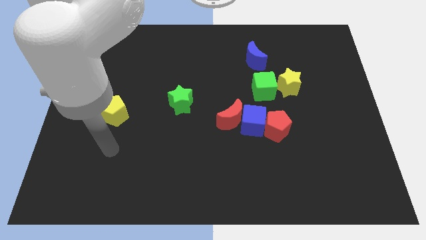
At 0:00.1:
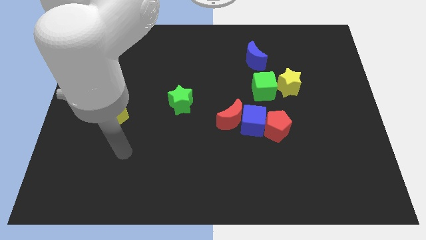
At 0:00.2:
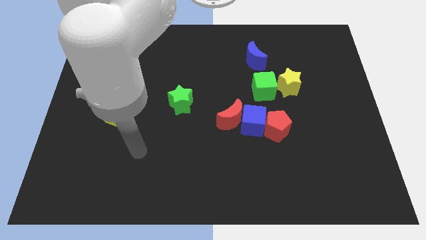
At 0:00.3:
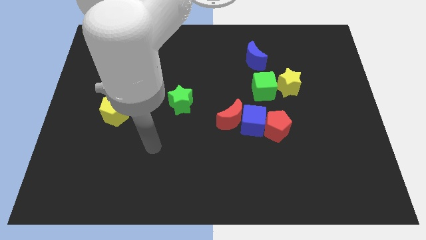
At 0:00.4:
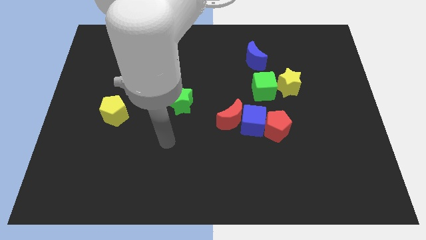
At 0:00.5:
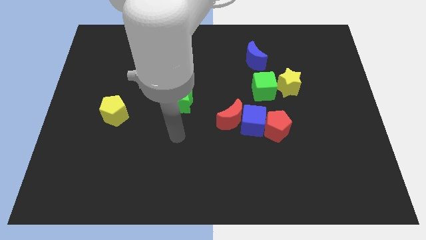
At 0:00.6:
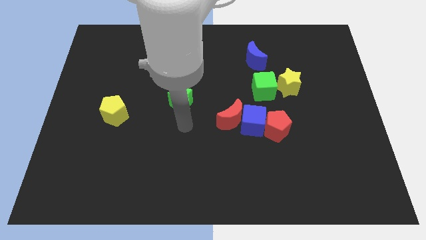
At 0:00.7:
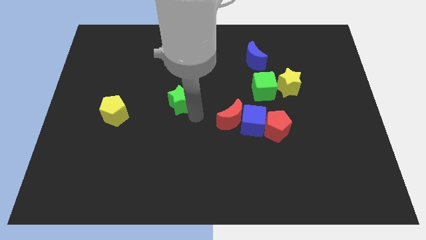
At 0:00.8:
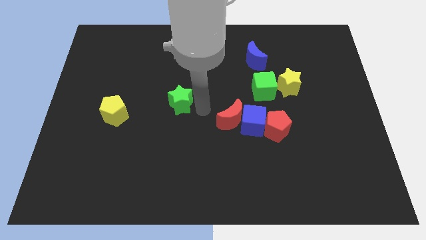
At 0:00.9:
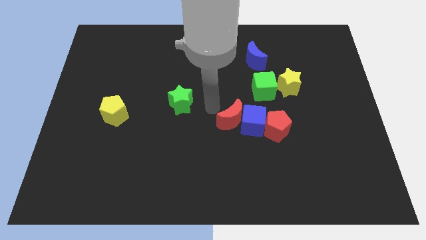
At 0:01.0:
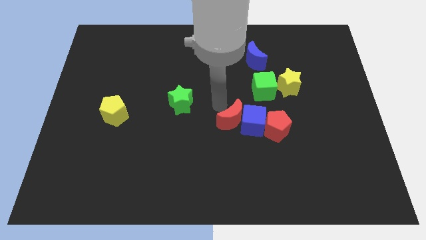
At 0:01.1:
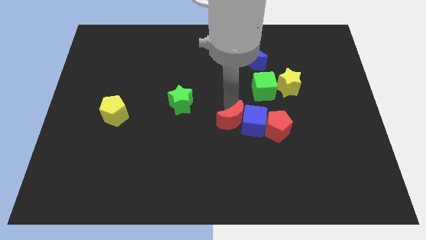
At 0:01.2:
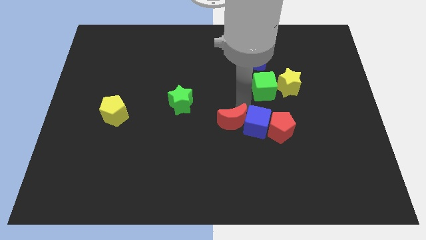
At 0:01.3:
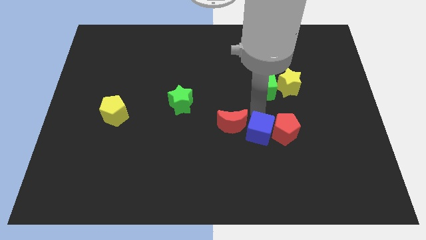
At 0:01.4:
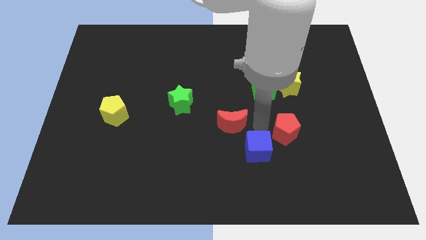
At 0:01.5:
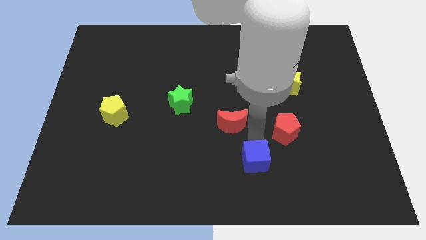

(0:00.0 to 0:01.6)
move the red moon away from the blue cube

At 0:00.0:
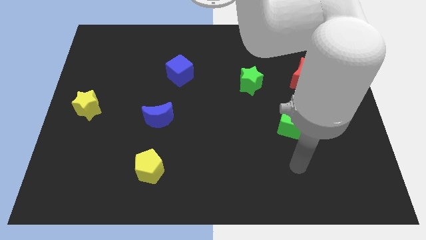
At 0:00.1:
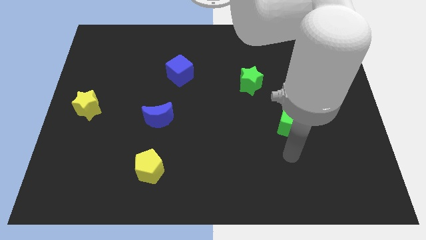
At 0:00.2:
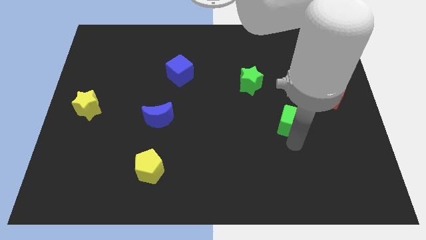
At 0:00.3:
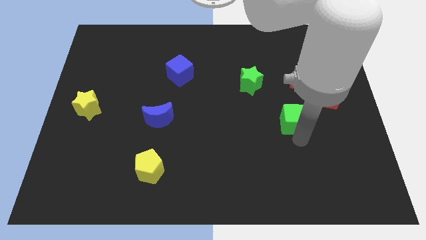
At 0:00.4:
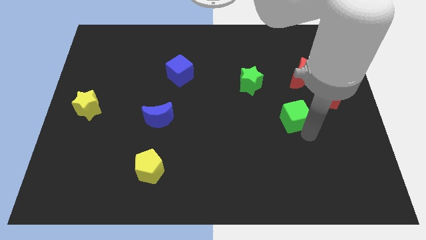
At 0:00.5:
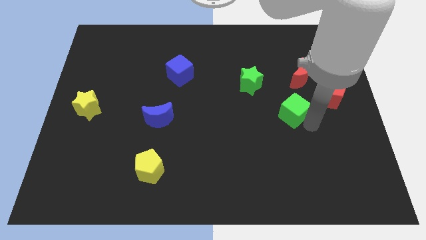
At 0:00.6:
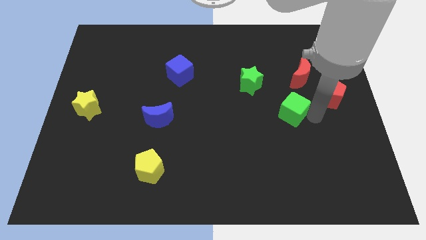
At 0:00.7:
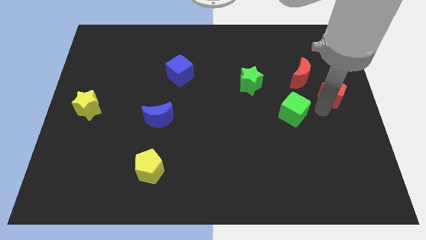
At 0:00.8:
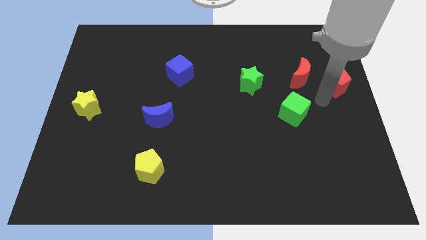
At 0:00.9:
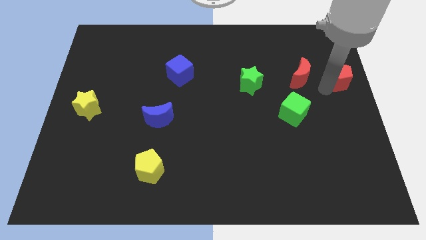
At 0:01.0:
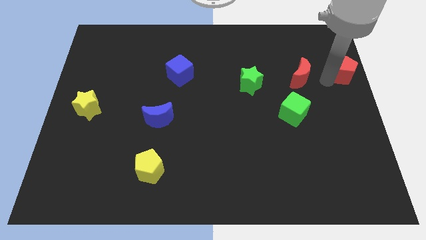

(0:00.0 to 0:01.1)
move the red moon away from the red pentagon

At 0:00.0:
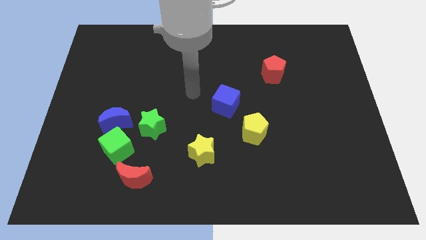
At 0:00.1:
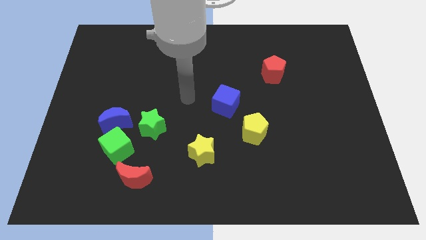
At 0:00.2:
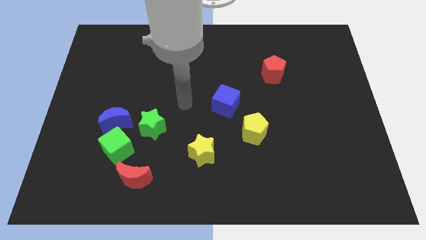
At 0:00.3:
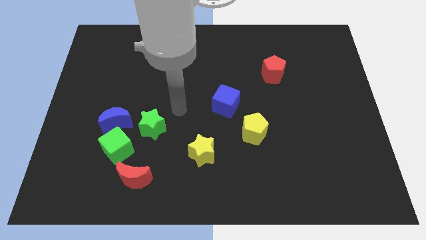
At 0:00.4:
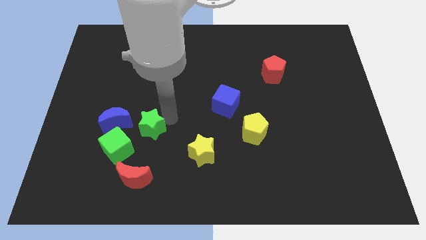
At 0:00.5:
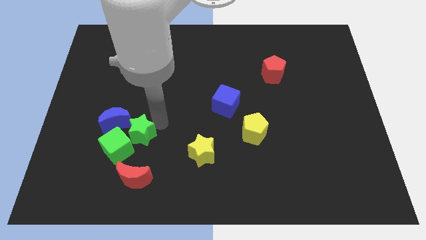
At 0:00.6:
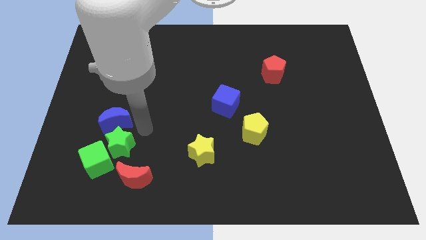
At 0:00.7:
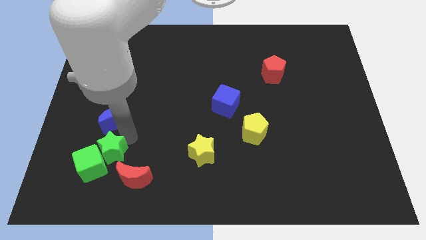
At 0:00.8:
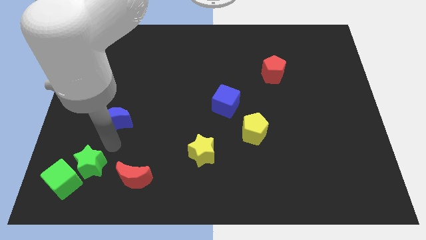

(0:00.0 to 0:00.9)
move the blue moon away from the green cube and green star

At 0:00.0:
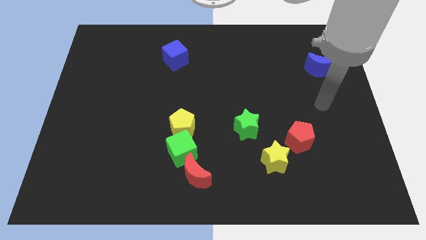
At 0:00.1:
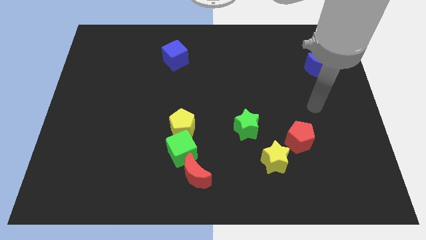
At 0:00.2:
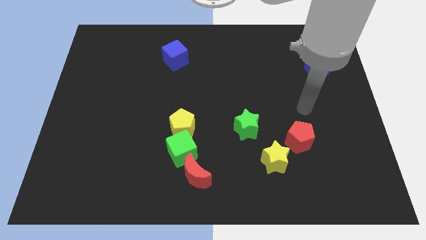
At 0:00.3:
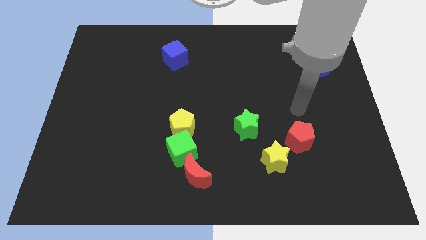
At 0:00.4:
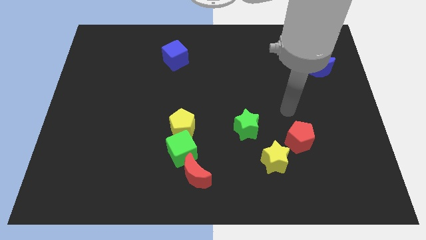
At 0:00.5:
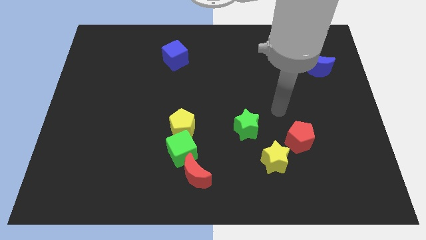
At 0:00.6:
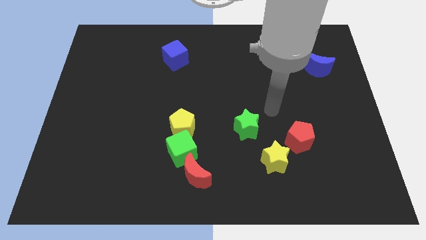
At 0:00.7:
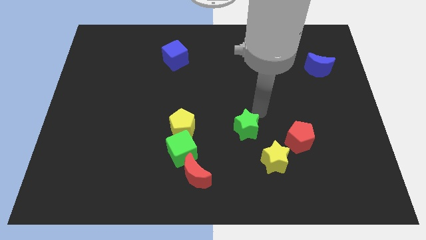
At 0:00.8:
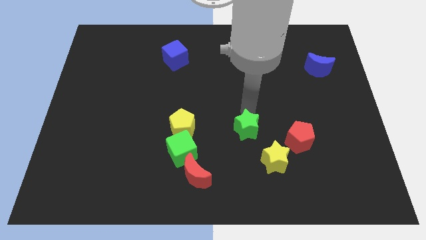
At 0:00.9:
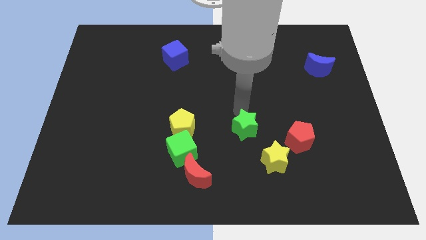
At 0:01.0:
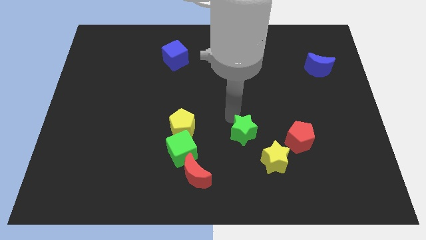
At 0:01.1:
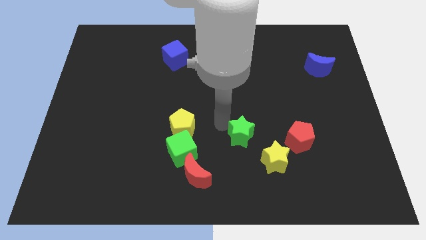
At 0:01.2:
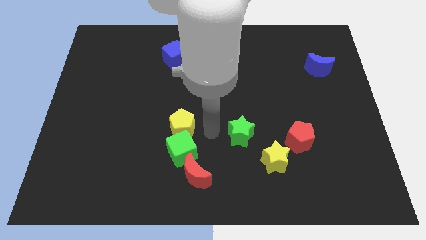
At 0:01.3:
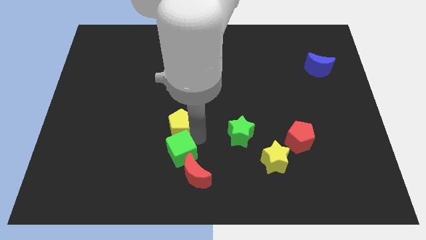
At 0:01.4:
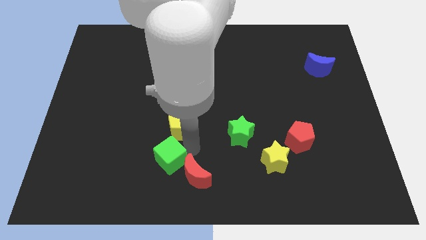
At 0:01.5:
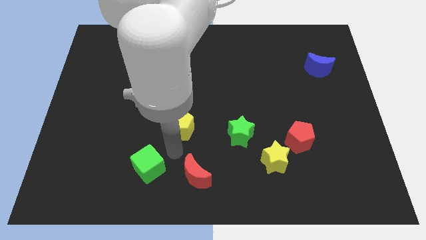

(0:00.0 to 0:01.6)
pull the yellow pentagon apart from the green cube

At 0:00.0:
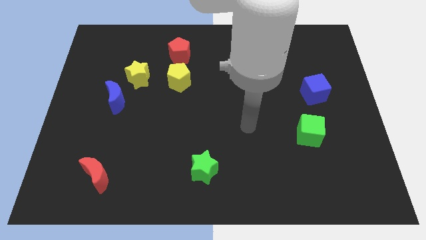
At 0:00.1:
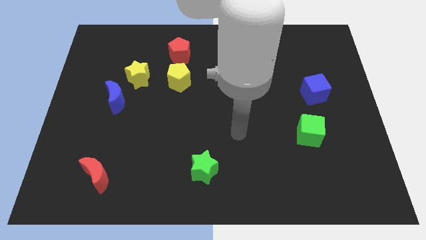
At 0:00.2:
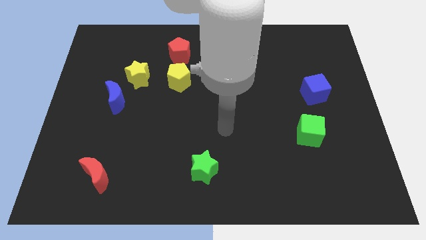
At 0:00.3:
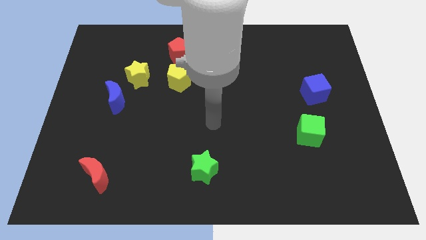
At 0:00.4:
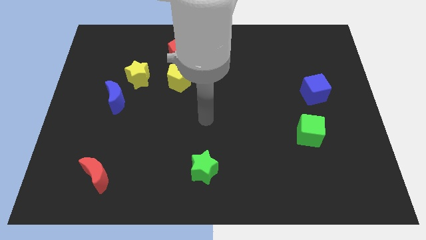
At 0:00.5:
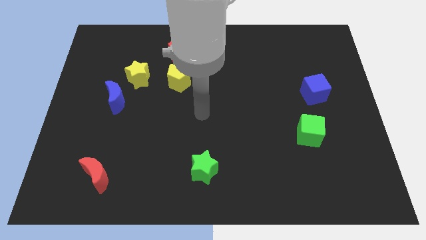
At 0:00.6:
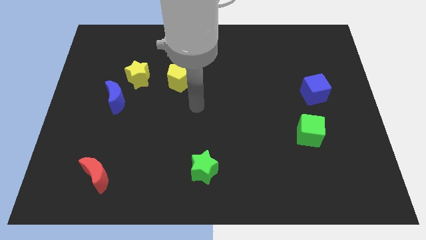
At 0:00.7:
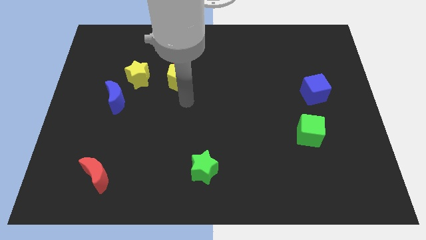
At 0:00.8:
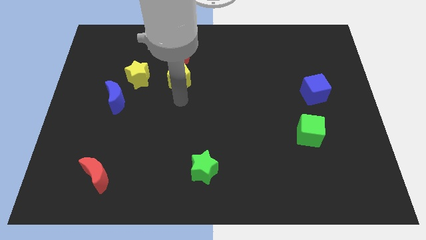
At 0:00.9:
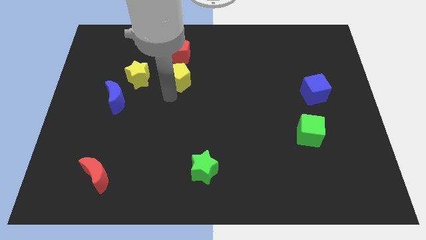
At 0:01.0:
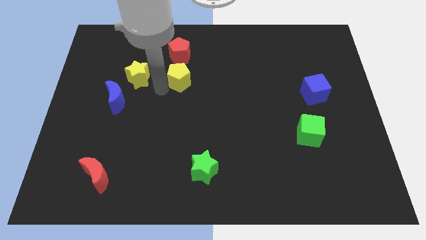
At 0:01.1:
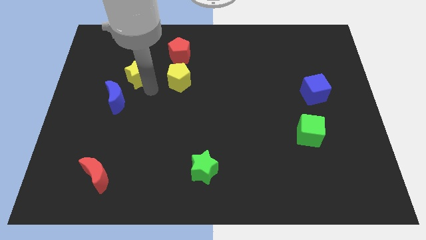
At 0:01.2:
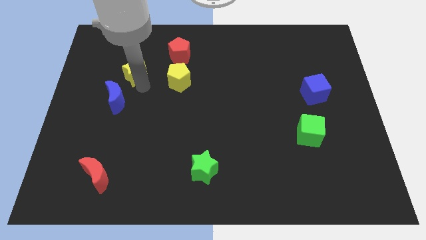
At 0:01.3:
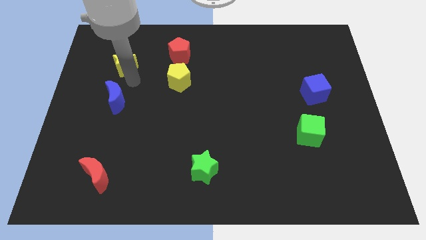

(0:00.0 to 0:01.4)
pull the blue moon apart from the yellow star

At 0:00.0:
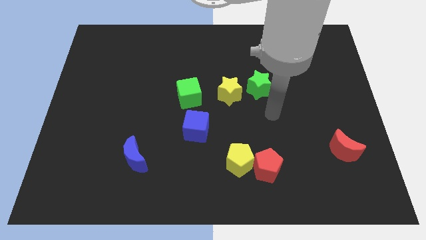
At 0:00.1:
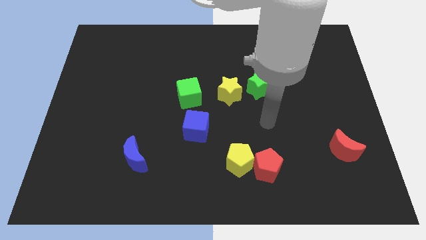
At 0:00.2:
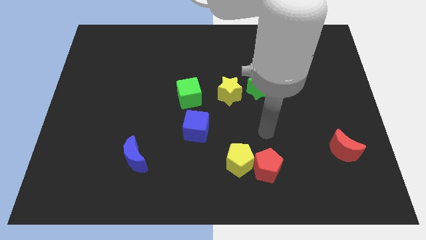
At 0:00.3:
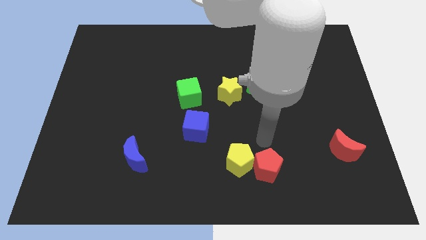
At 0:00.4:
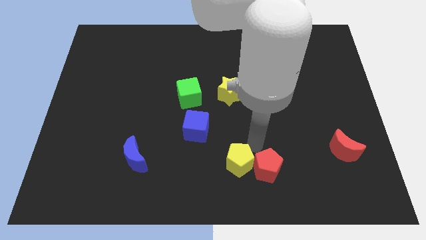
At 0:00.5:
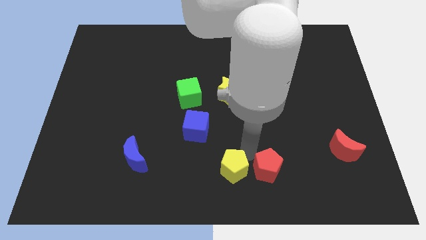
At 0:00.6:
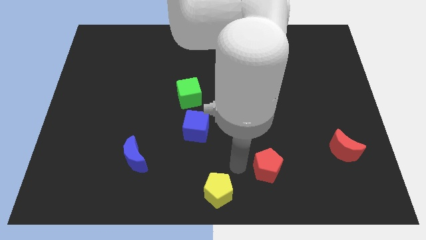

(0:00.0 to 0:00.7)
separate the red pentagon from the yellow pentagon

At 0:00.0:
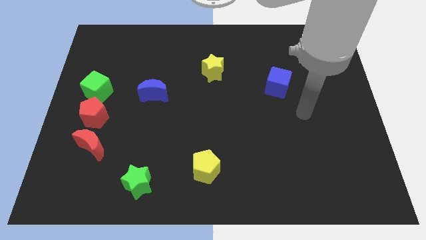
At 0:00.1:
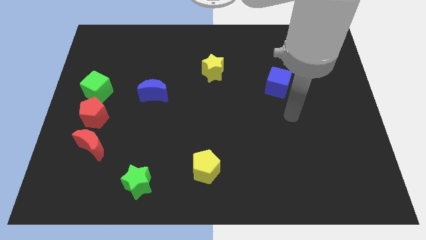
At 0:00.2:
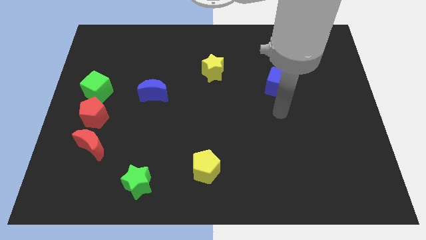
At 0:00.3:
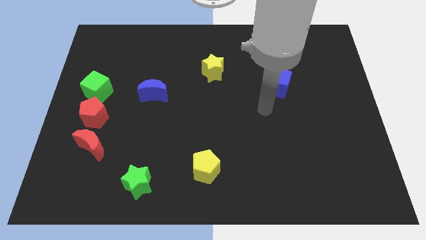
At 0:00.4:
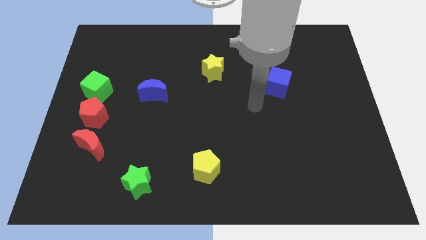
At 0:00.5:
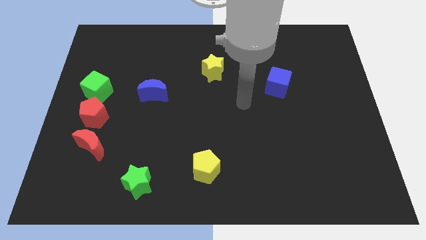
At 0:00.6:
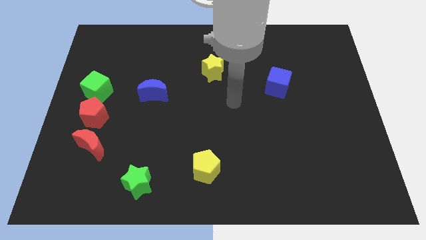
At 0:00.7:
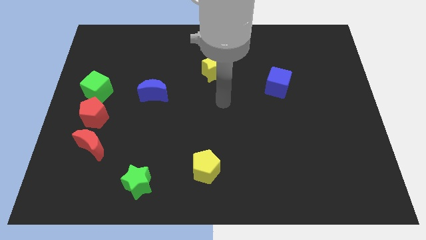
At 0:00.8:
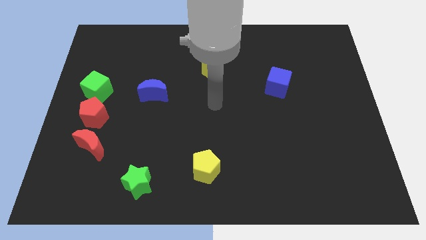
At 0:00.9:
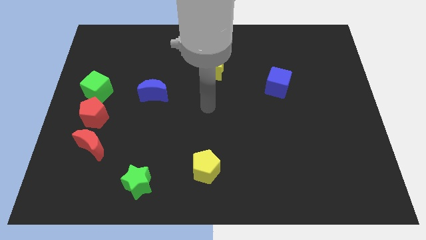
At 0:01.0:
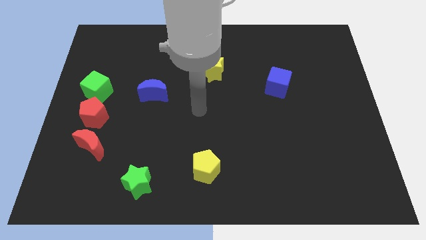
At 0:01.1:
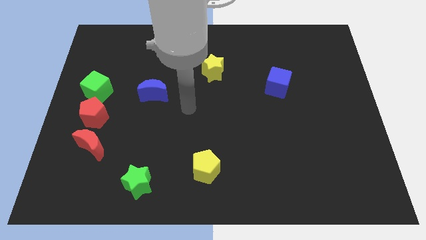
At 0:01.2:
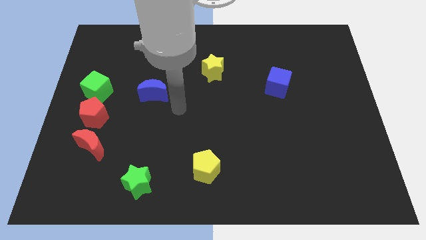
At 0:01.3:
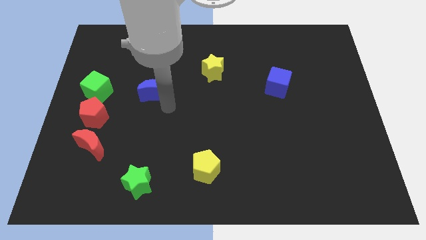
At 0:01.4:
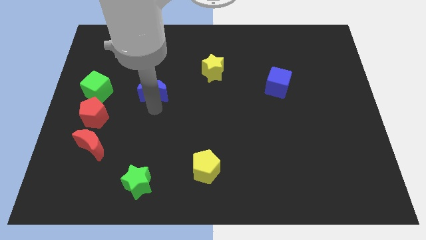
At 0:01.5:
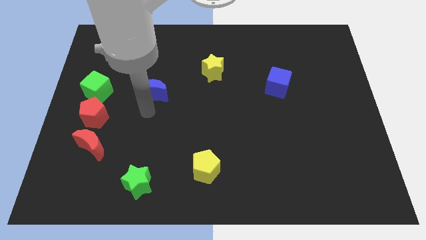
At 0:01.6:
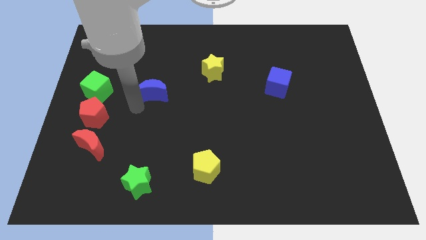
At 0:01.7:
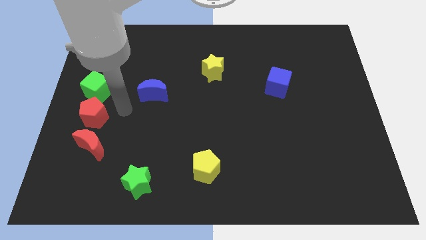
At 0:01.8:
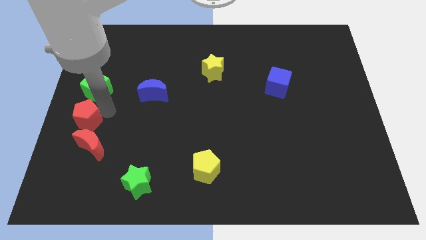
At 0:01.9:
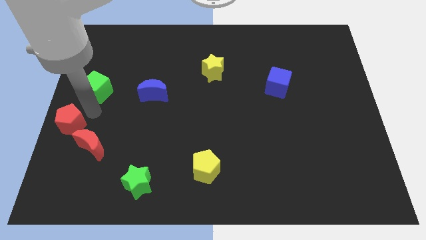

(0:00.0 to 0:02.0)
separate the green cube from the red pentagon
